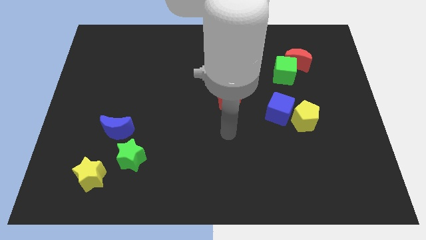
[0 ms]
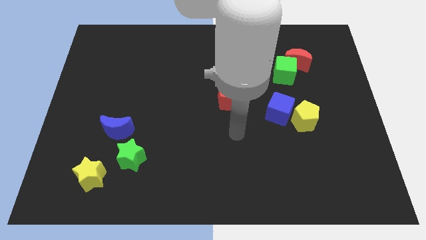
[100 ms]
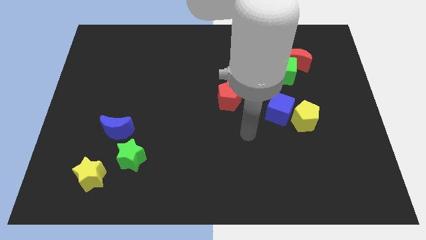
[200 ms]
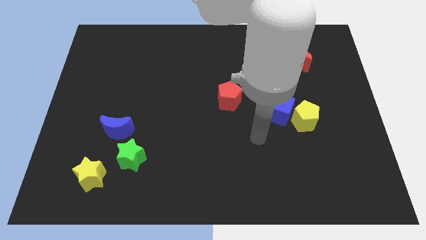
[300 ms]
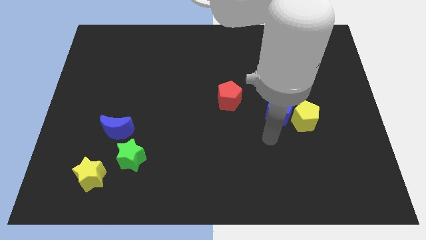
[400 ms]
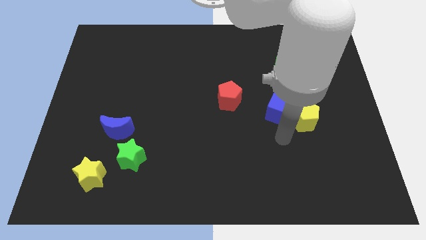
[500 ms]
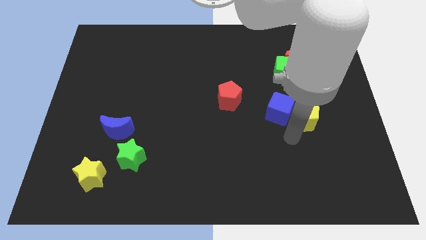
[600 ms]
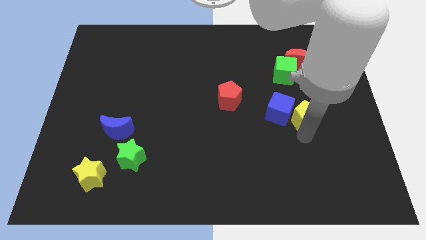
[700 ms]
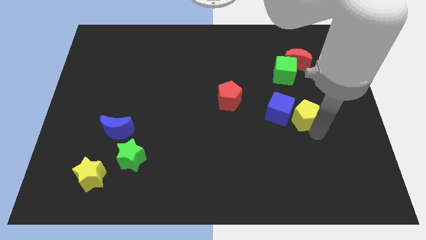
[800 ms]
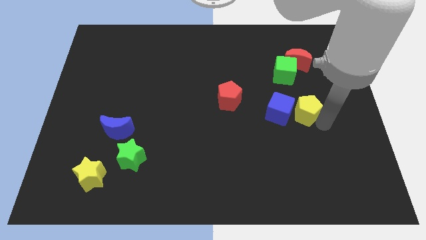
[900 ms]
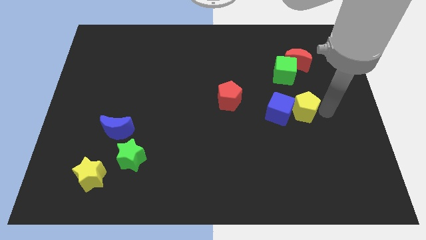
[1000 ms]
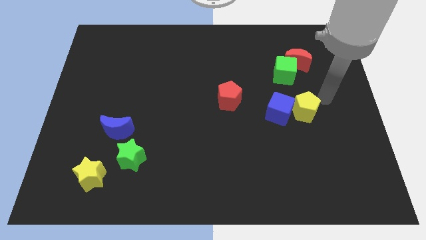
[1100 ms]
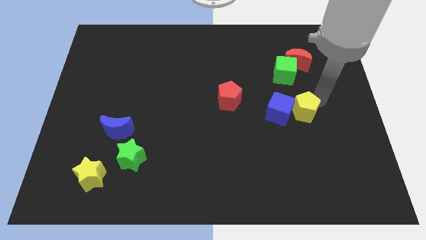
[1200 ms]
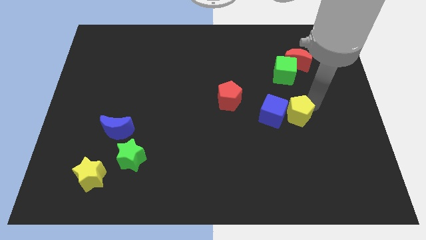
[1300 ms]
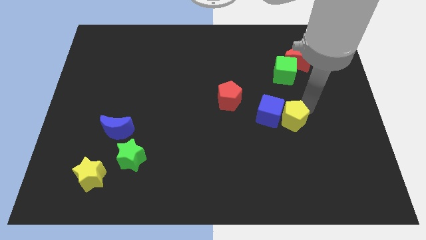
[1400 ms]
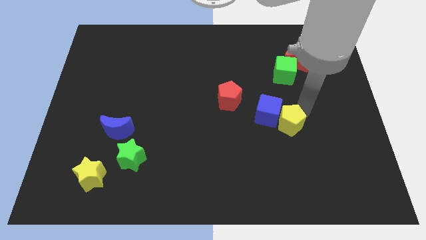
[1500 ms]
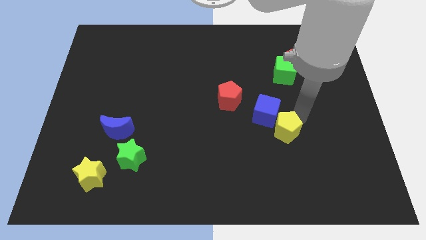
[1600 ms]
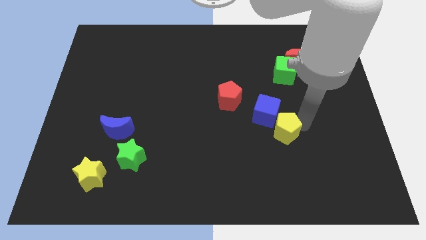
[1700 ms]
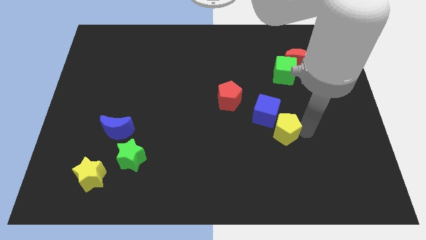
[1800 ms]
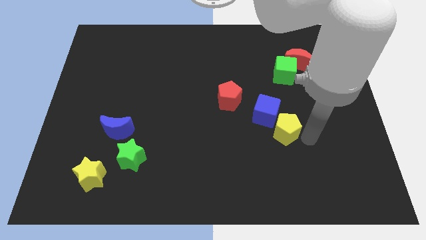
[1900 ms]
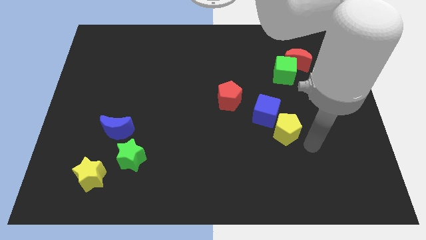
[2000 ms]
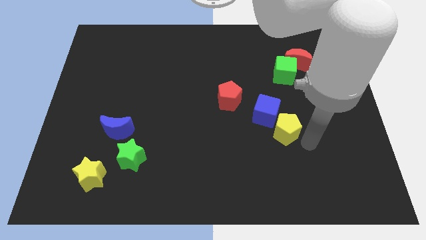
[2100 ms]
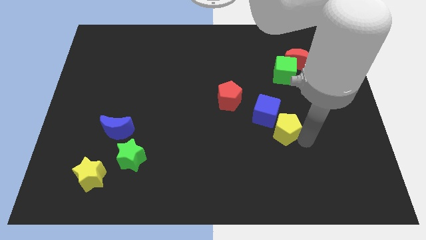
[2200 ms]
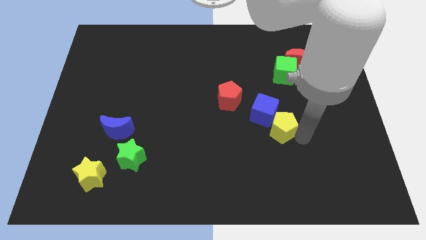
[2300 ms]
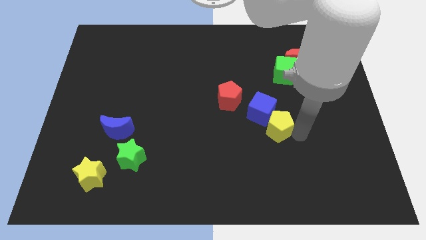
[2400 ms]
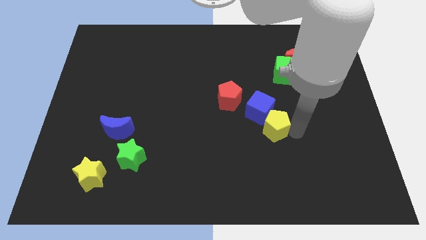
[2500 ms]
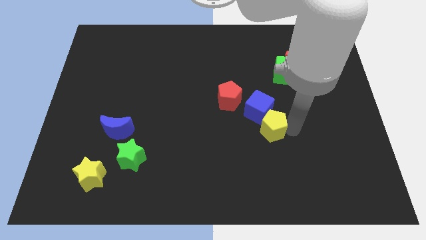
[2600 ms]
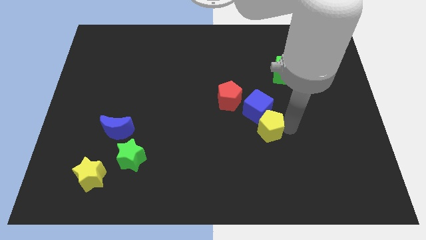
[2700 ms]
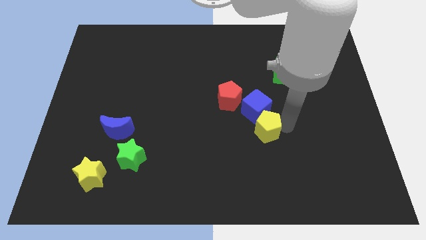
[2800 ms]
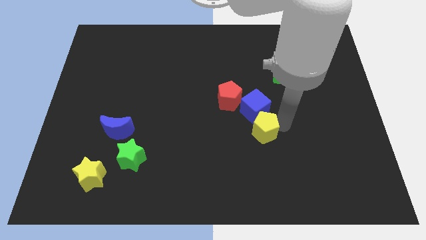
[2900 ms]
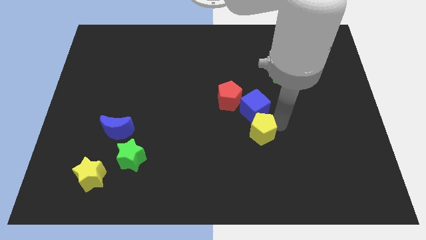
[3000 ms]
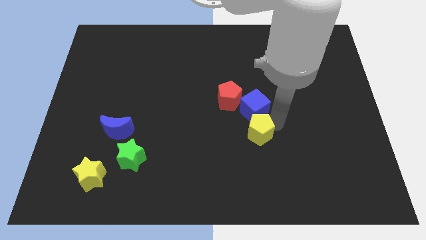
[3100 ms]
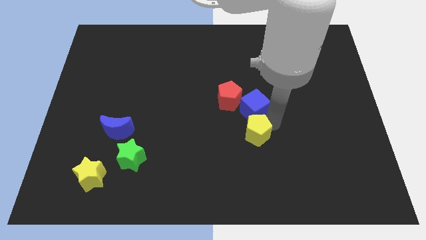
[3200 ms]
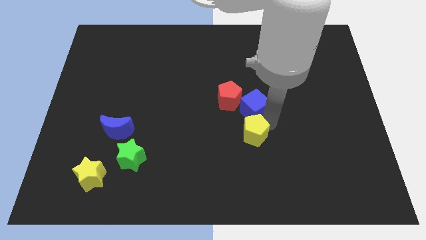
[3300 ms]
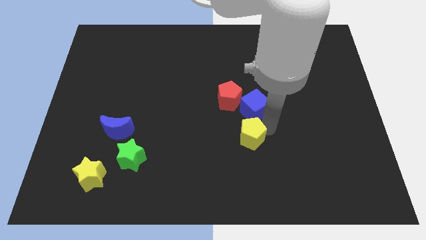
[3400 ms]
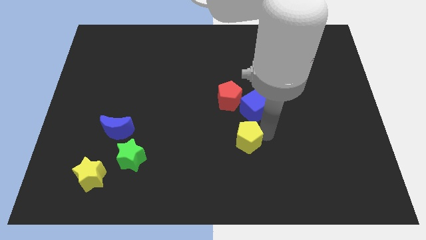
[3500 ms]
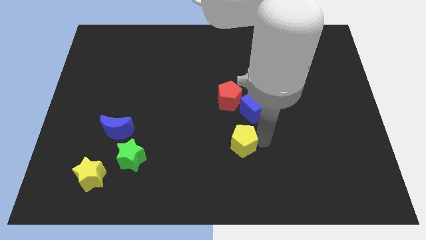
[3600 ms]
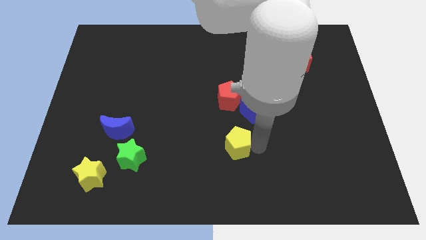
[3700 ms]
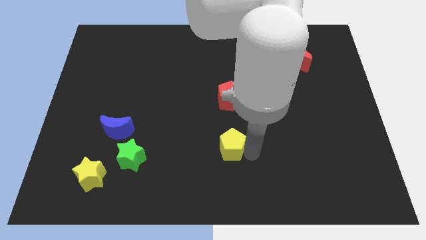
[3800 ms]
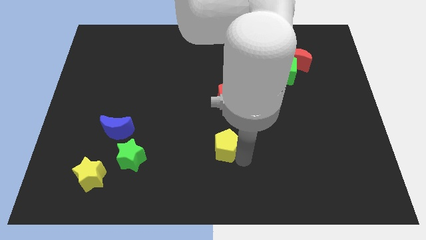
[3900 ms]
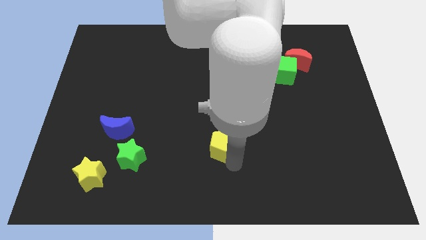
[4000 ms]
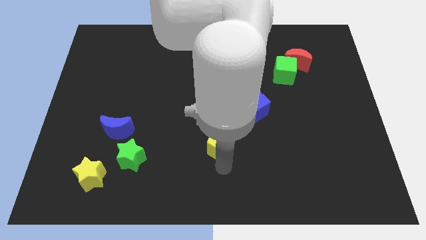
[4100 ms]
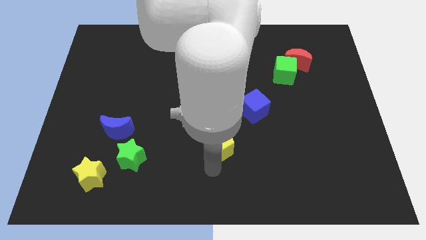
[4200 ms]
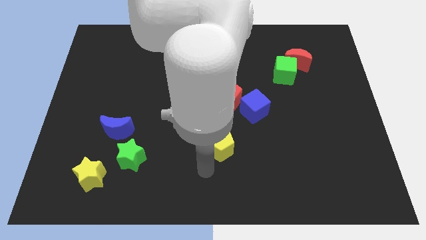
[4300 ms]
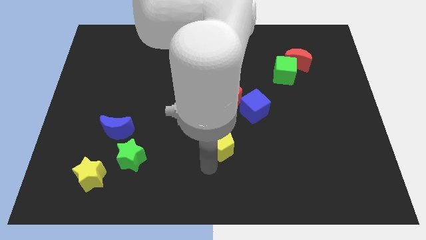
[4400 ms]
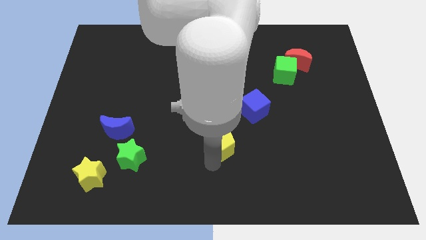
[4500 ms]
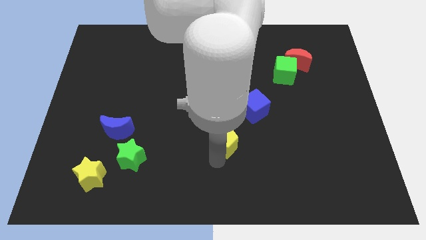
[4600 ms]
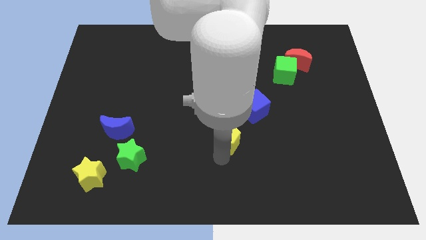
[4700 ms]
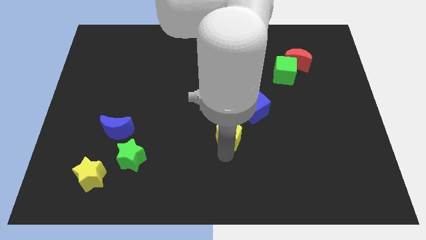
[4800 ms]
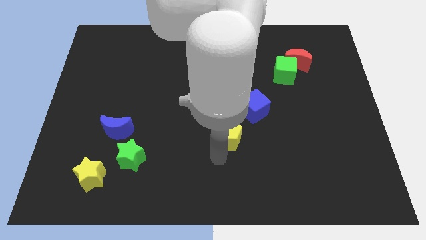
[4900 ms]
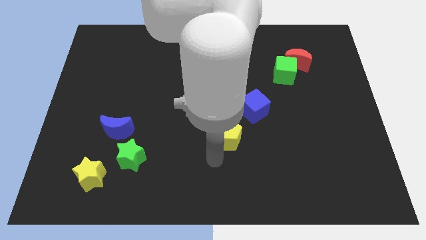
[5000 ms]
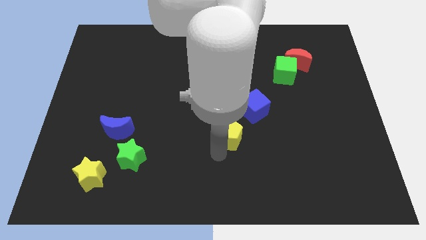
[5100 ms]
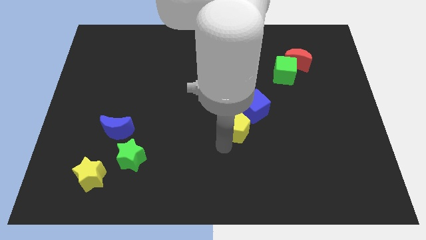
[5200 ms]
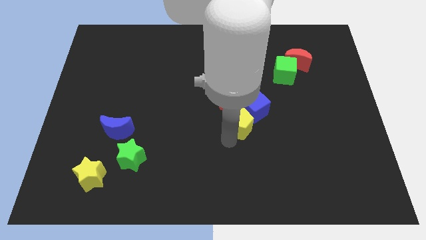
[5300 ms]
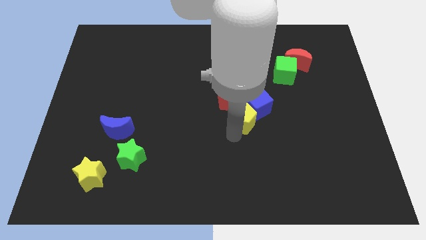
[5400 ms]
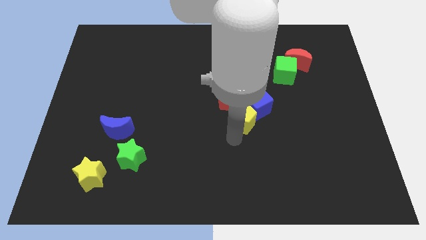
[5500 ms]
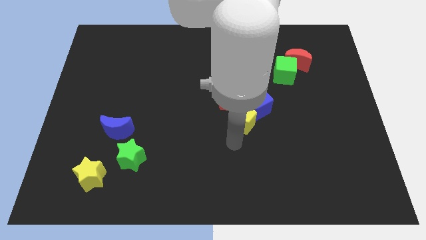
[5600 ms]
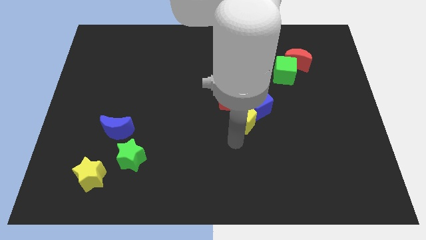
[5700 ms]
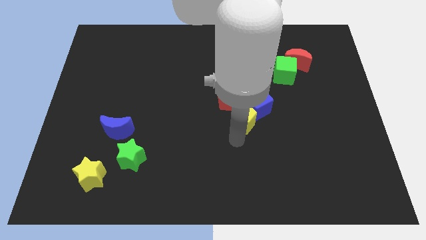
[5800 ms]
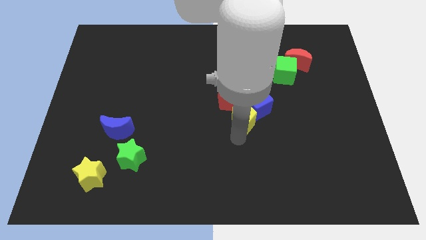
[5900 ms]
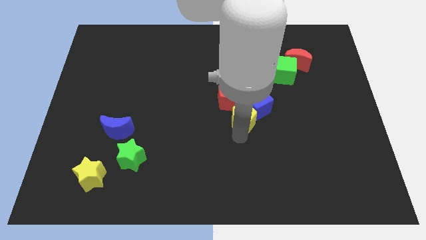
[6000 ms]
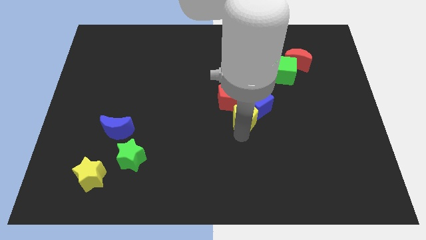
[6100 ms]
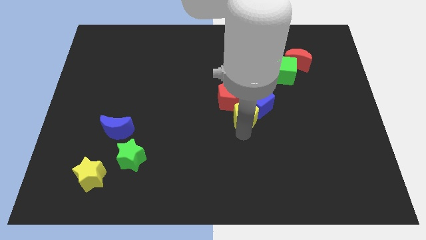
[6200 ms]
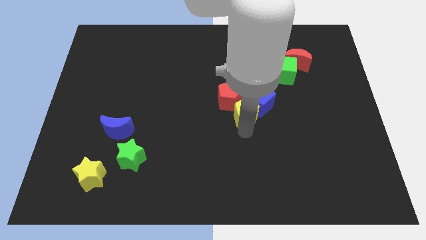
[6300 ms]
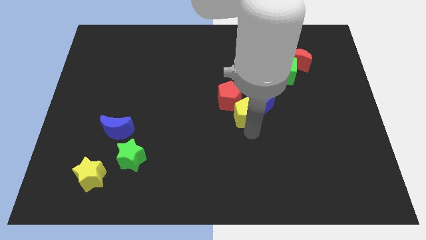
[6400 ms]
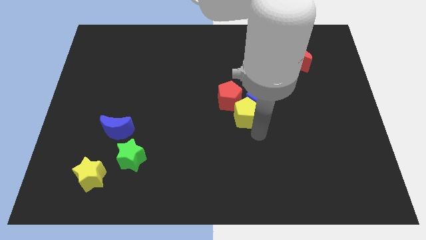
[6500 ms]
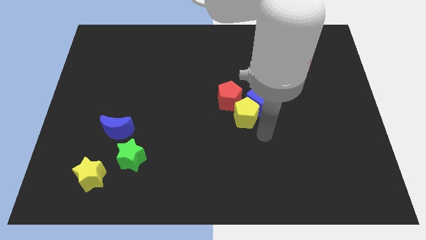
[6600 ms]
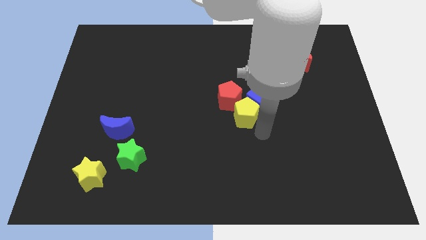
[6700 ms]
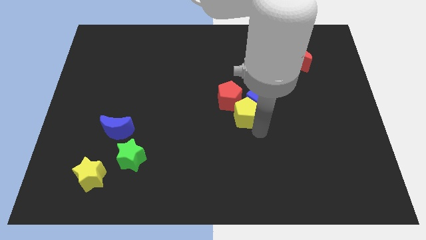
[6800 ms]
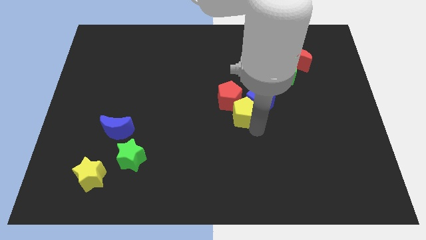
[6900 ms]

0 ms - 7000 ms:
put the yellow pentagon next to the red pentagon
